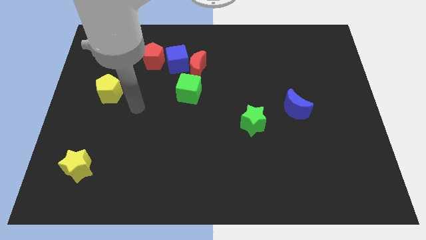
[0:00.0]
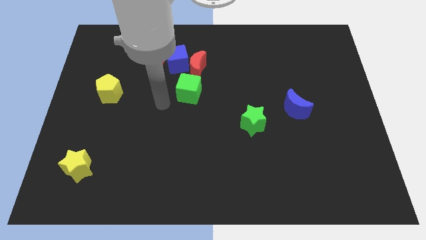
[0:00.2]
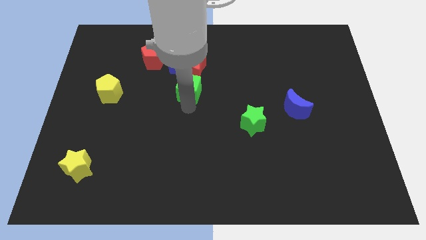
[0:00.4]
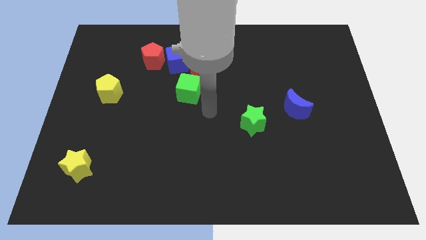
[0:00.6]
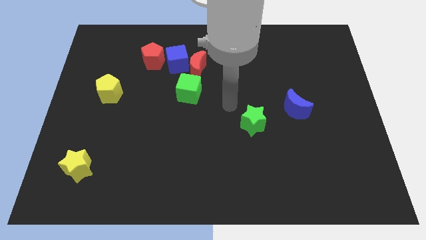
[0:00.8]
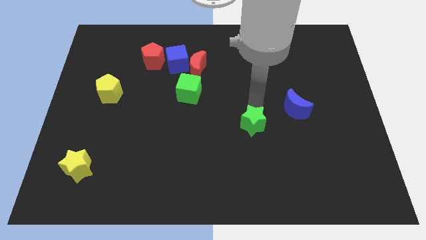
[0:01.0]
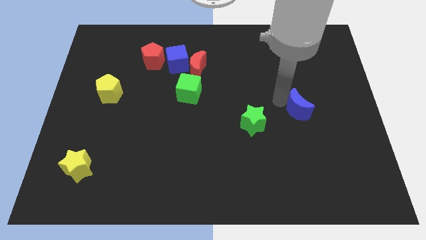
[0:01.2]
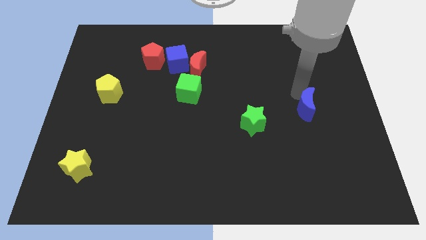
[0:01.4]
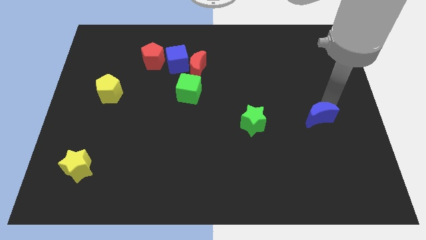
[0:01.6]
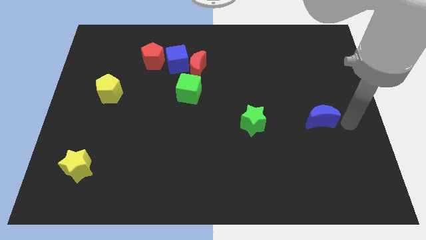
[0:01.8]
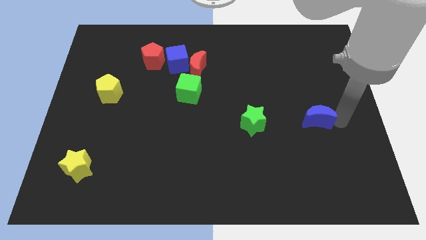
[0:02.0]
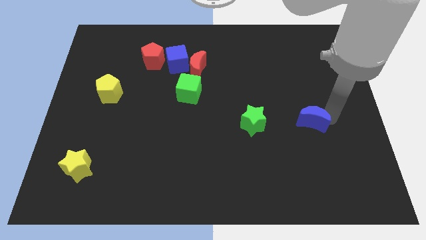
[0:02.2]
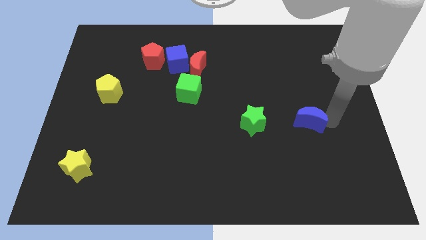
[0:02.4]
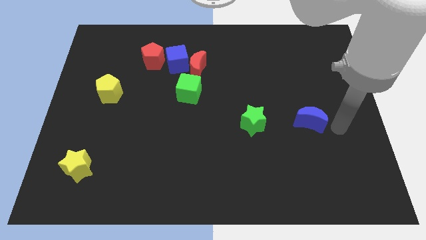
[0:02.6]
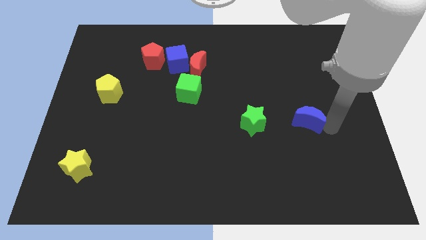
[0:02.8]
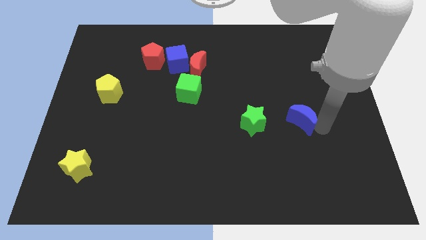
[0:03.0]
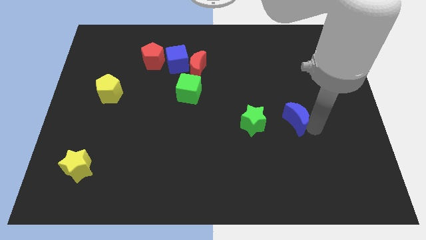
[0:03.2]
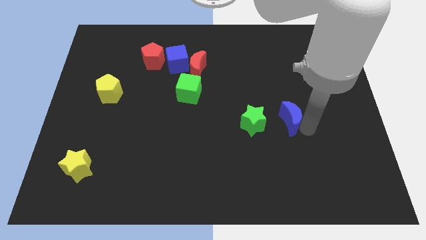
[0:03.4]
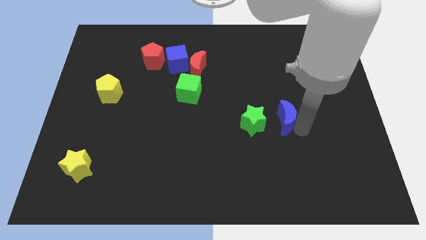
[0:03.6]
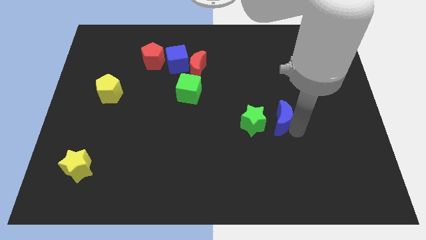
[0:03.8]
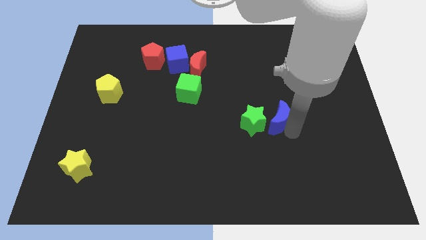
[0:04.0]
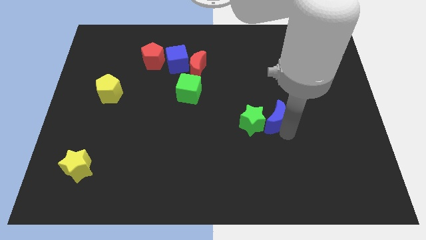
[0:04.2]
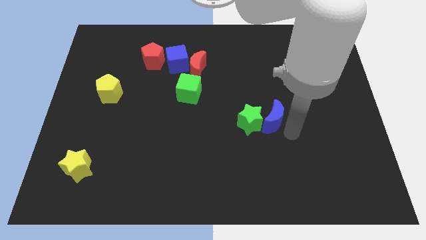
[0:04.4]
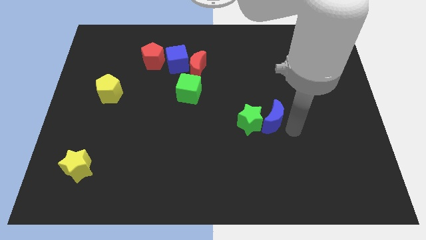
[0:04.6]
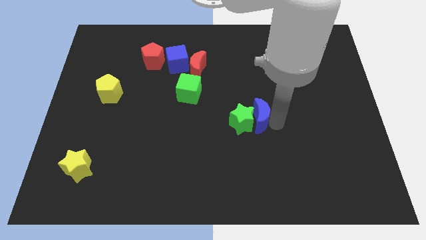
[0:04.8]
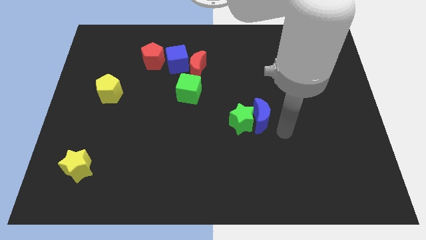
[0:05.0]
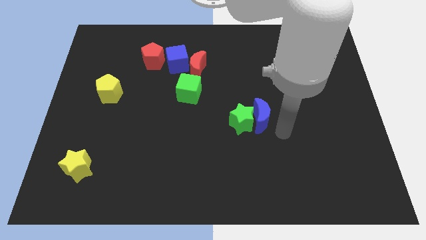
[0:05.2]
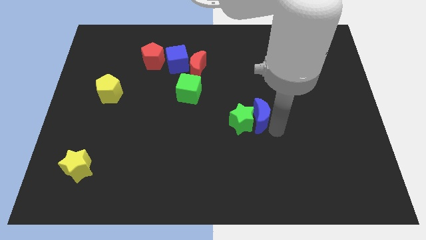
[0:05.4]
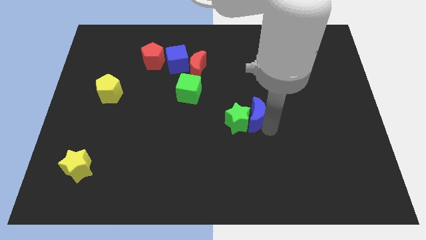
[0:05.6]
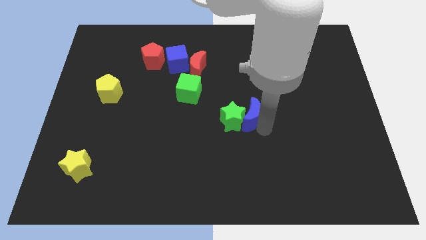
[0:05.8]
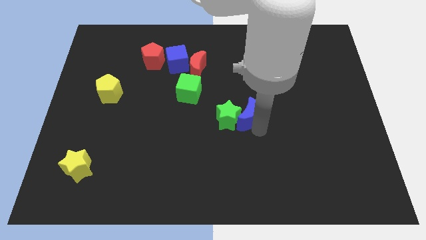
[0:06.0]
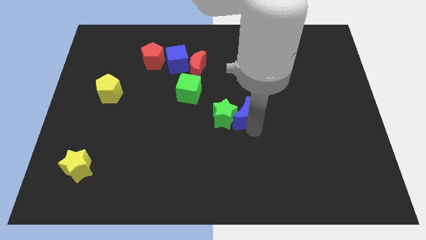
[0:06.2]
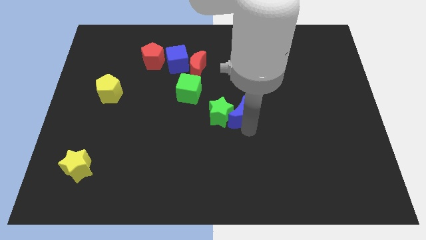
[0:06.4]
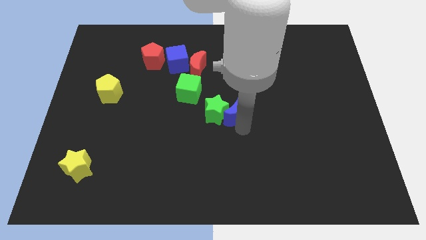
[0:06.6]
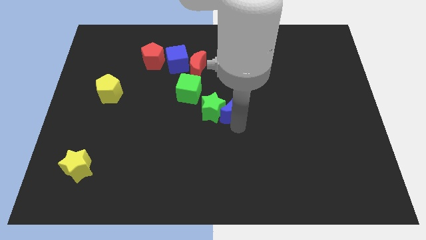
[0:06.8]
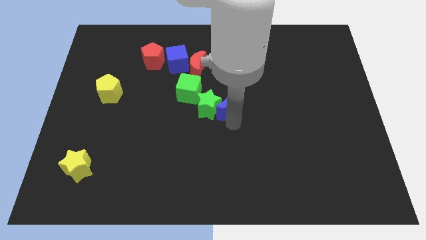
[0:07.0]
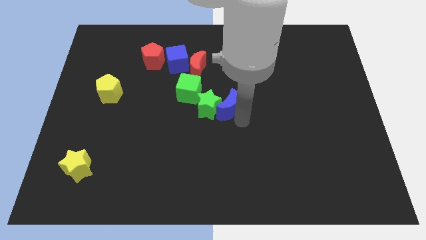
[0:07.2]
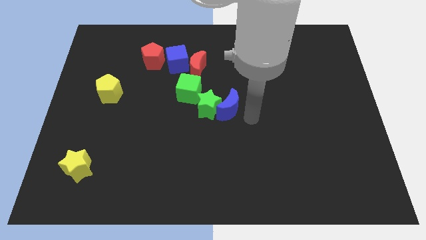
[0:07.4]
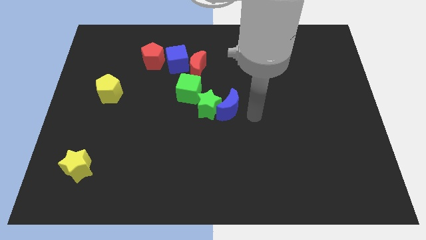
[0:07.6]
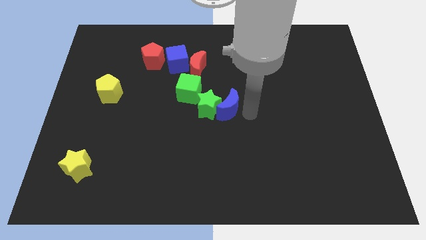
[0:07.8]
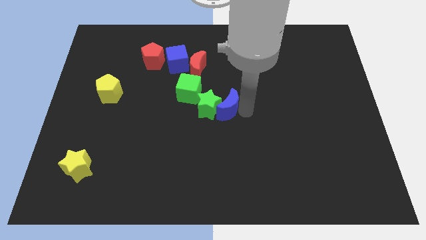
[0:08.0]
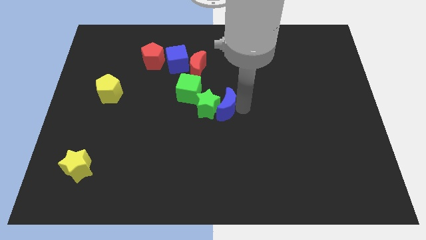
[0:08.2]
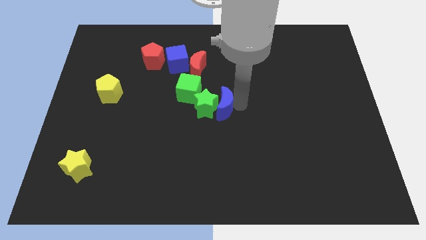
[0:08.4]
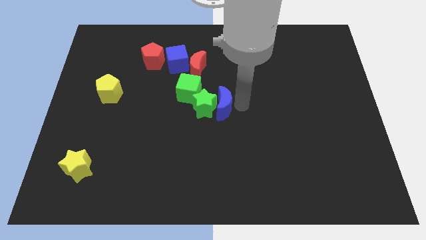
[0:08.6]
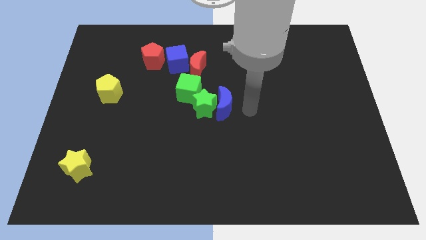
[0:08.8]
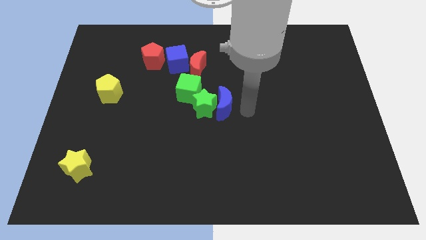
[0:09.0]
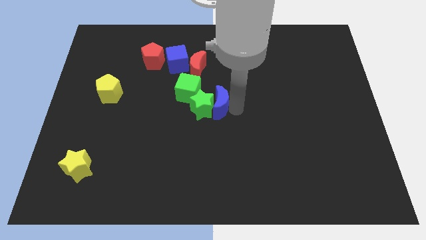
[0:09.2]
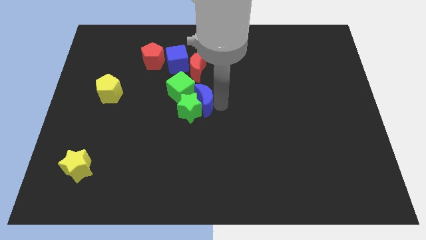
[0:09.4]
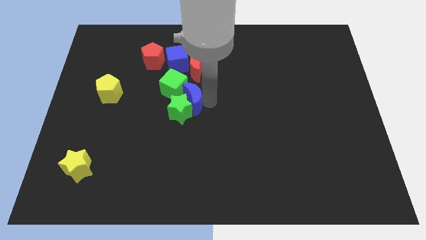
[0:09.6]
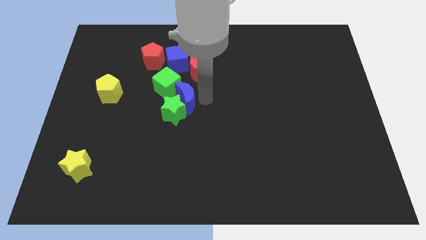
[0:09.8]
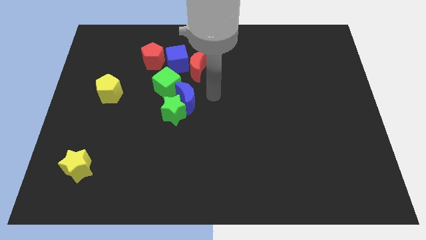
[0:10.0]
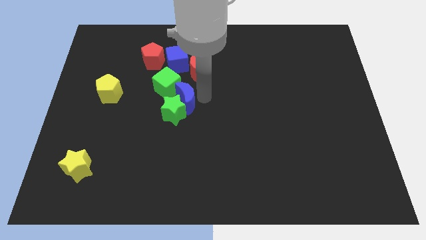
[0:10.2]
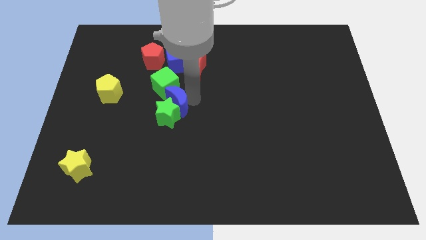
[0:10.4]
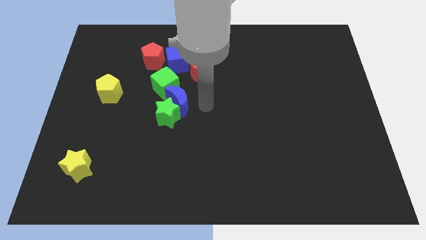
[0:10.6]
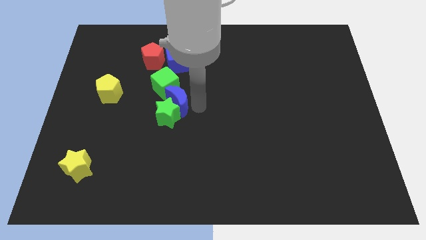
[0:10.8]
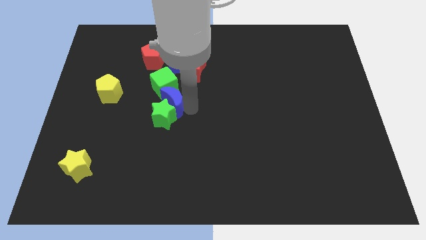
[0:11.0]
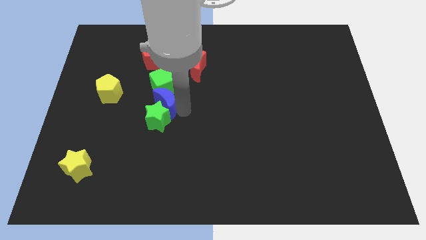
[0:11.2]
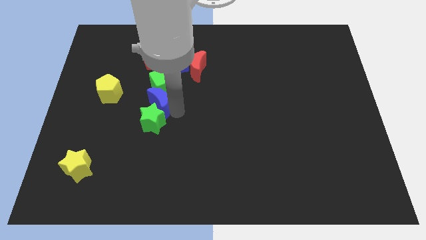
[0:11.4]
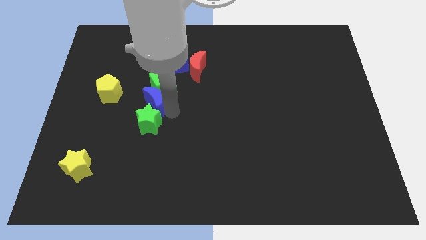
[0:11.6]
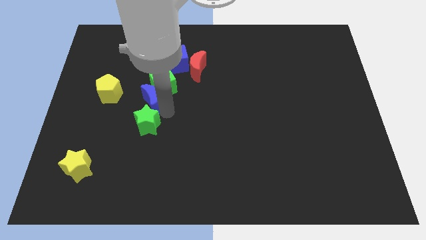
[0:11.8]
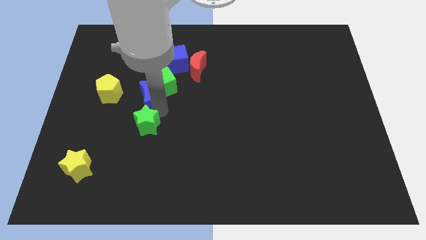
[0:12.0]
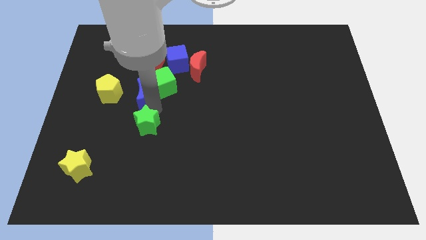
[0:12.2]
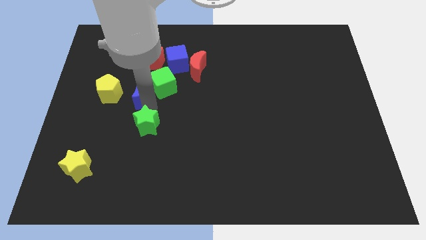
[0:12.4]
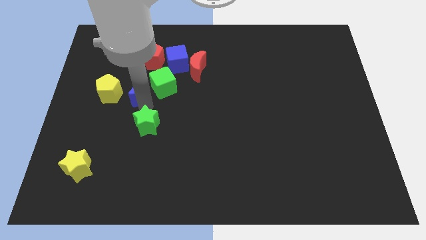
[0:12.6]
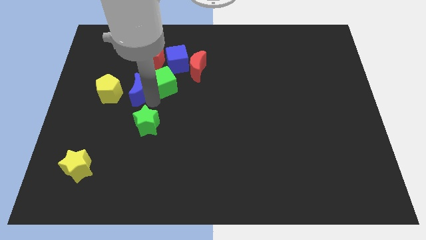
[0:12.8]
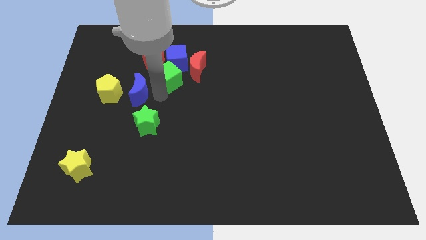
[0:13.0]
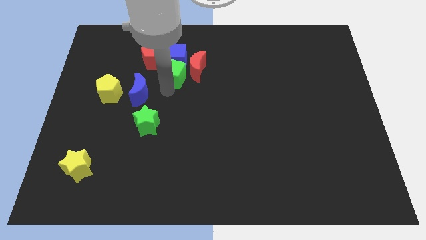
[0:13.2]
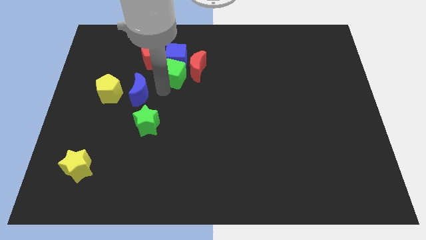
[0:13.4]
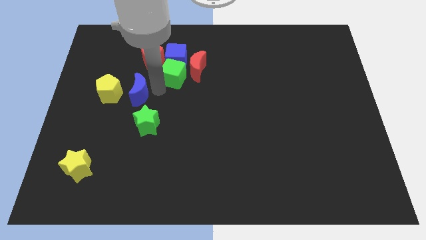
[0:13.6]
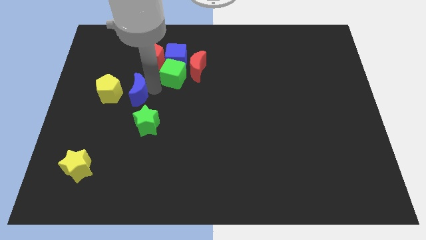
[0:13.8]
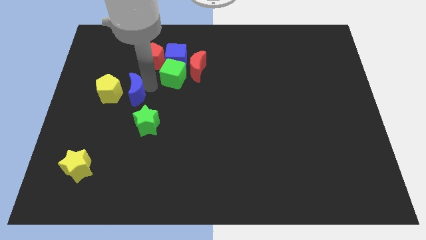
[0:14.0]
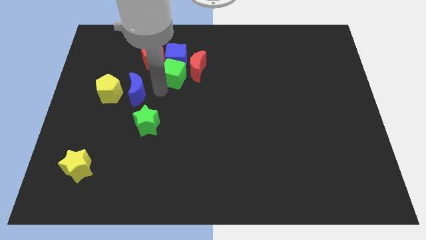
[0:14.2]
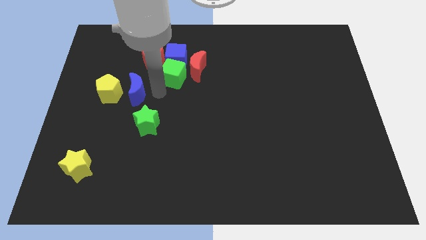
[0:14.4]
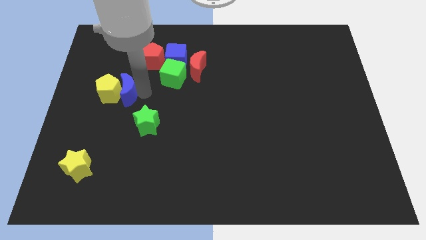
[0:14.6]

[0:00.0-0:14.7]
push the blue moon next to the yellow pentagon
